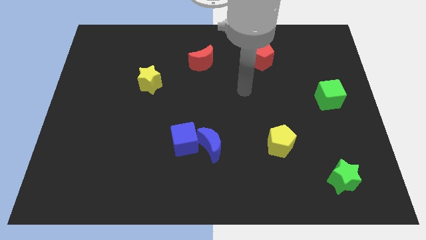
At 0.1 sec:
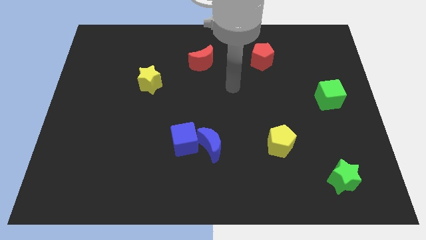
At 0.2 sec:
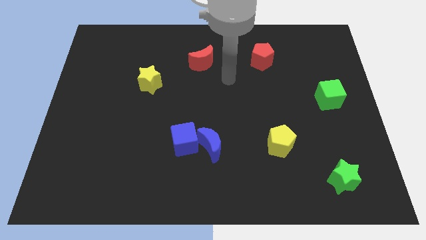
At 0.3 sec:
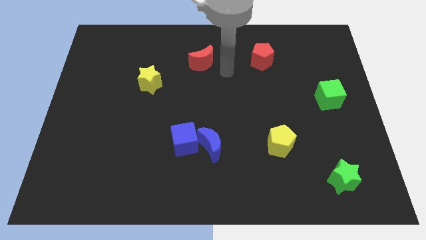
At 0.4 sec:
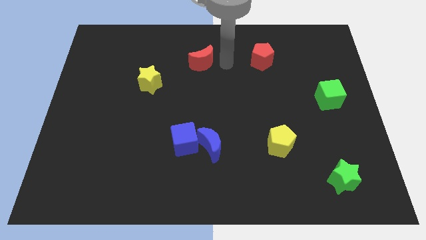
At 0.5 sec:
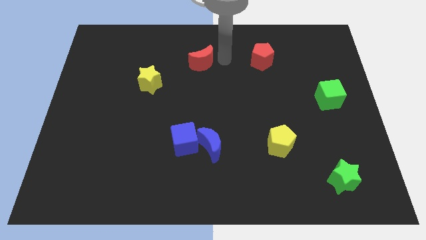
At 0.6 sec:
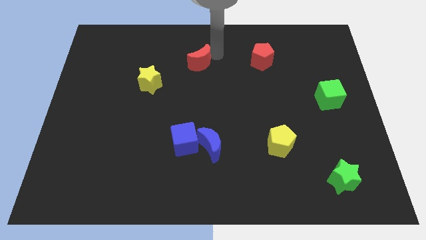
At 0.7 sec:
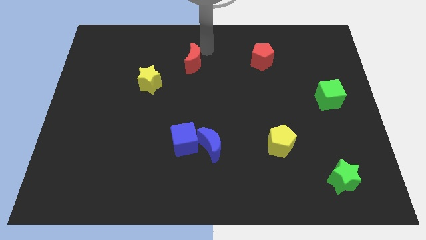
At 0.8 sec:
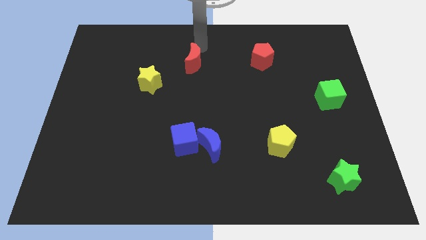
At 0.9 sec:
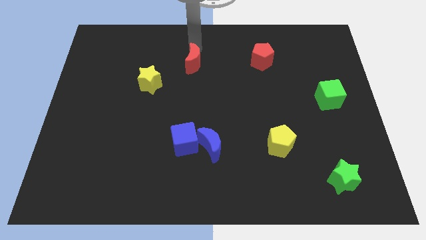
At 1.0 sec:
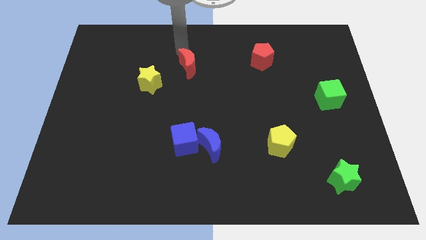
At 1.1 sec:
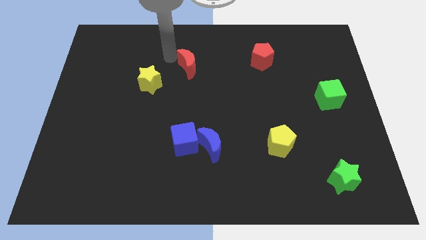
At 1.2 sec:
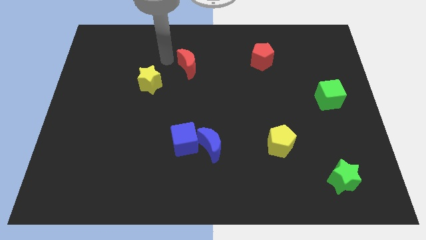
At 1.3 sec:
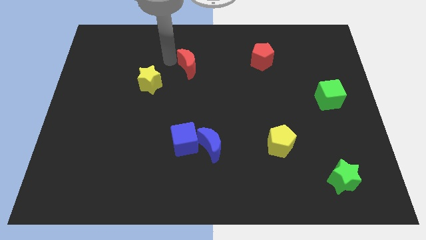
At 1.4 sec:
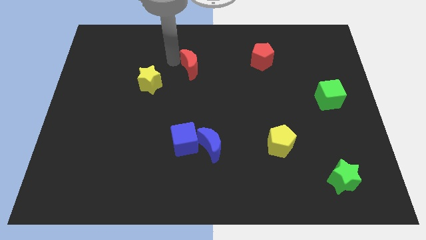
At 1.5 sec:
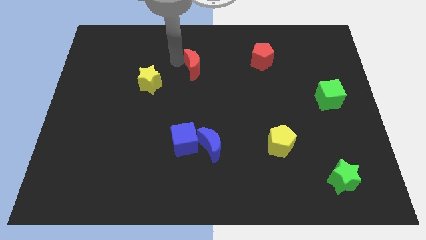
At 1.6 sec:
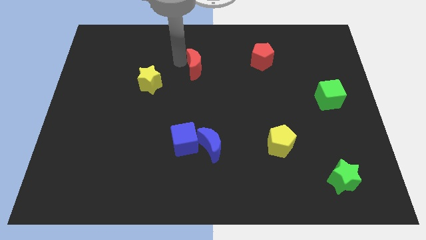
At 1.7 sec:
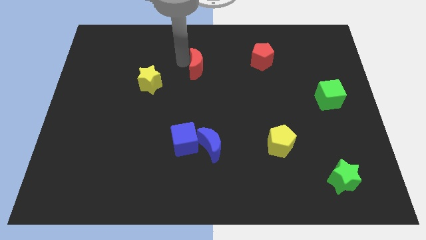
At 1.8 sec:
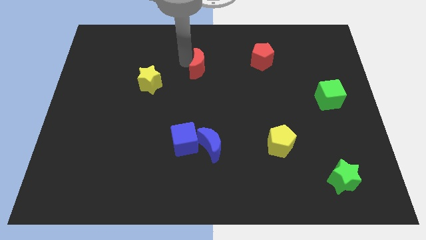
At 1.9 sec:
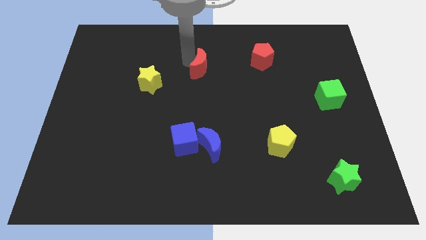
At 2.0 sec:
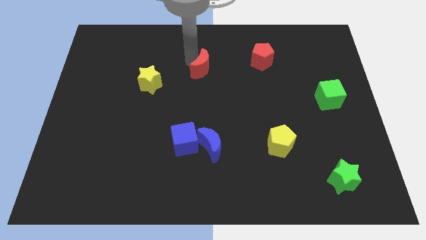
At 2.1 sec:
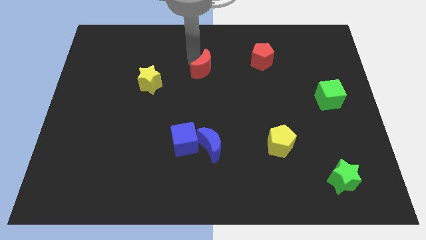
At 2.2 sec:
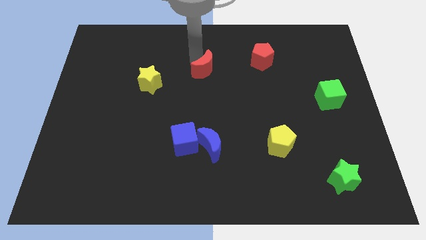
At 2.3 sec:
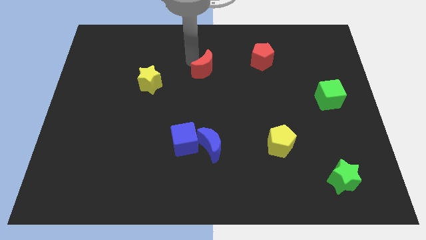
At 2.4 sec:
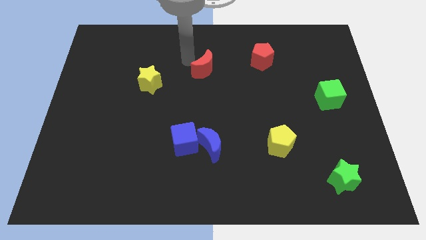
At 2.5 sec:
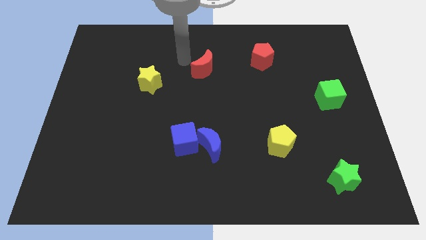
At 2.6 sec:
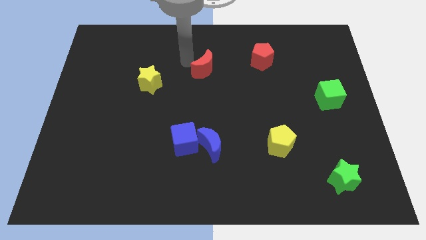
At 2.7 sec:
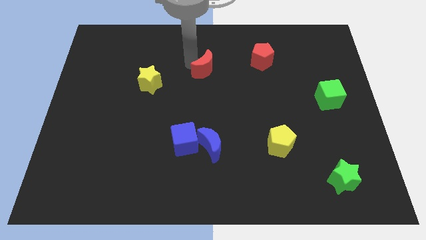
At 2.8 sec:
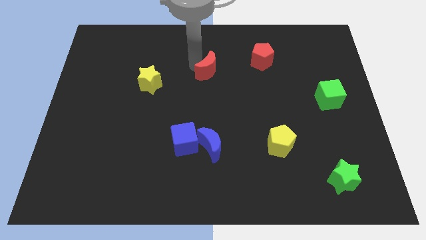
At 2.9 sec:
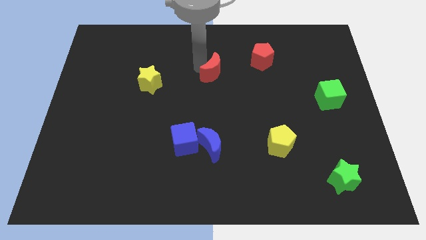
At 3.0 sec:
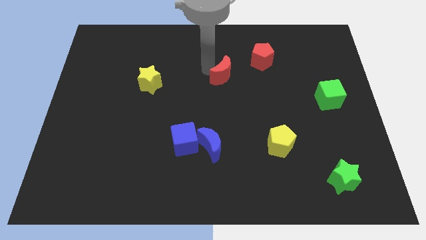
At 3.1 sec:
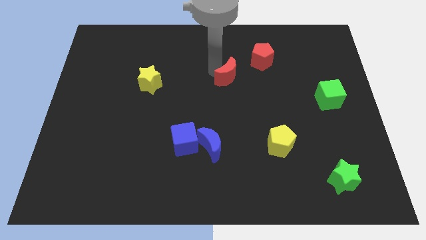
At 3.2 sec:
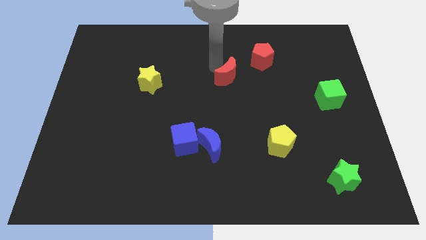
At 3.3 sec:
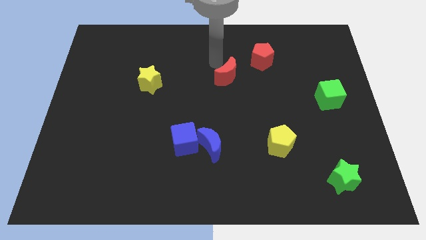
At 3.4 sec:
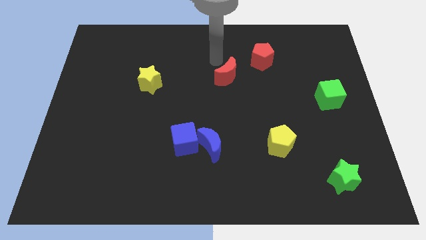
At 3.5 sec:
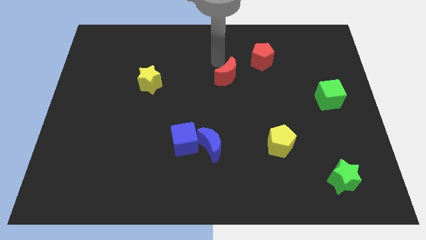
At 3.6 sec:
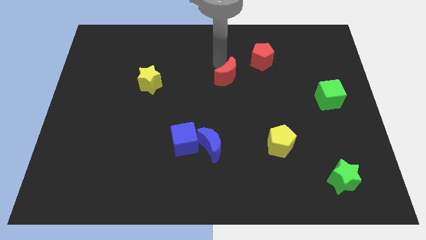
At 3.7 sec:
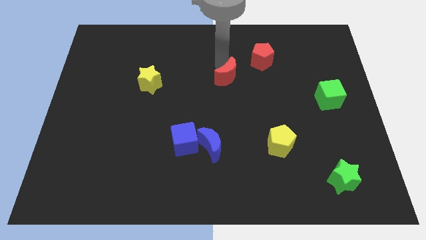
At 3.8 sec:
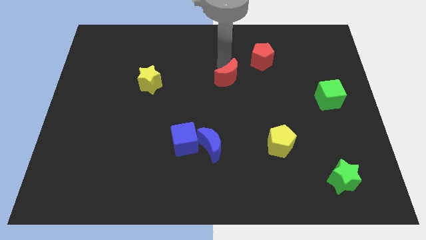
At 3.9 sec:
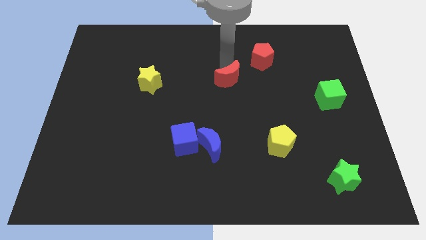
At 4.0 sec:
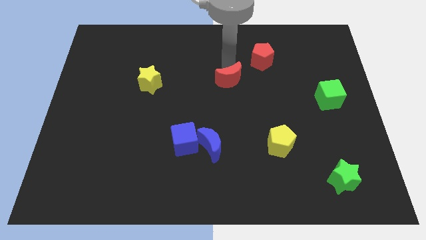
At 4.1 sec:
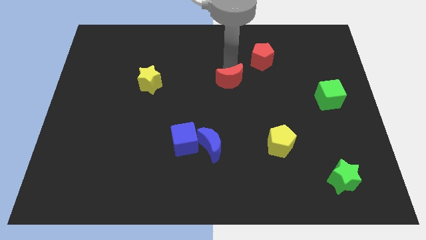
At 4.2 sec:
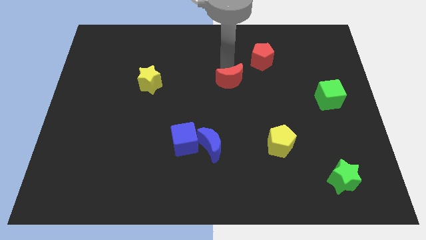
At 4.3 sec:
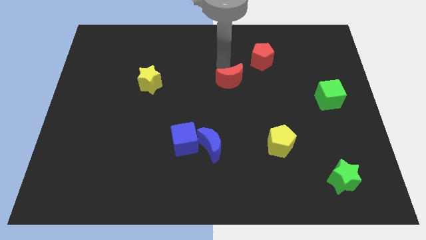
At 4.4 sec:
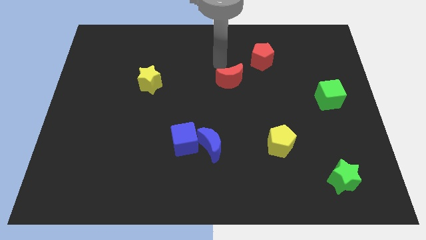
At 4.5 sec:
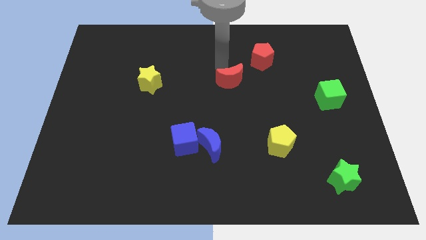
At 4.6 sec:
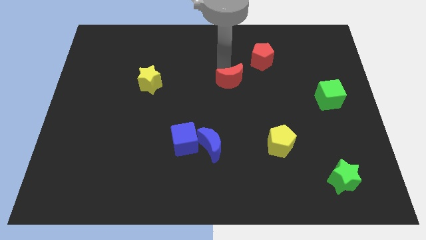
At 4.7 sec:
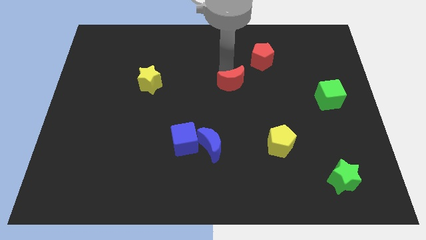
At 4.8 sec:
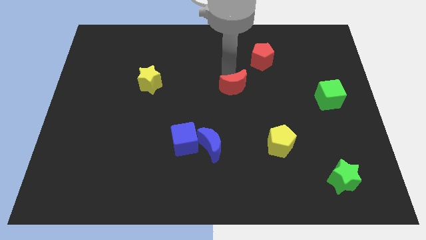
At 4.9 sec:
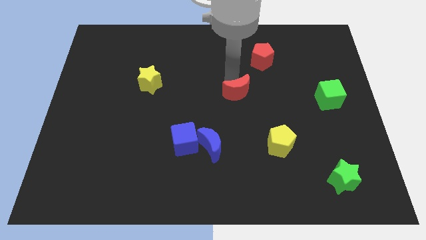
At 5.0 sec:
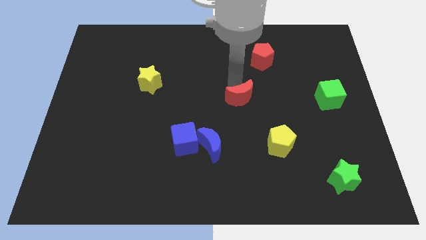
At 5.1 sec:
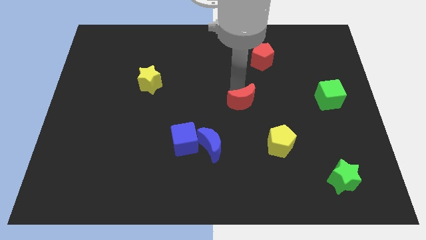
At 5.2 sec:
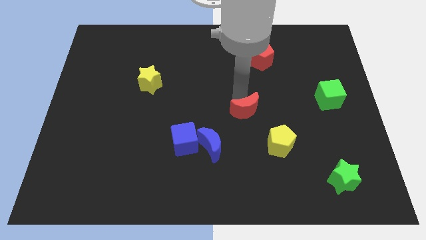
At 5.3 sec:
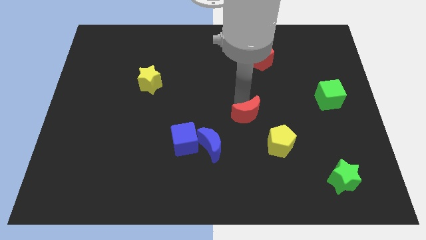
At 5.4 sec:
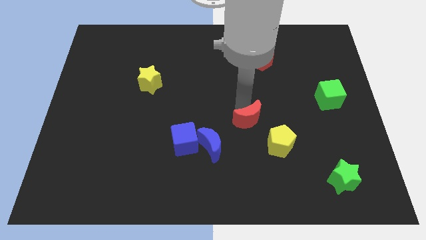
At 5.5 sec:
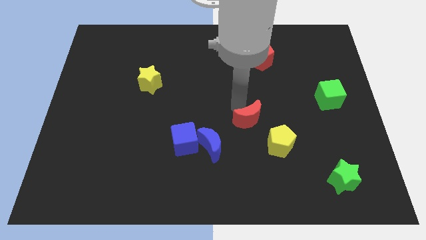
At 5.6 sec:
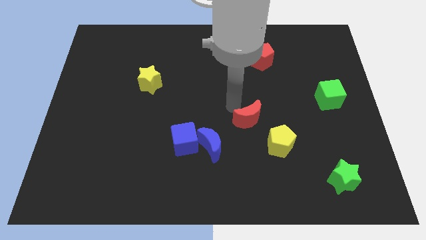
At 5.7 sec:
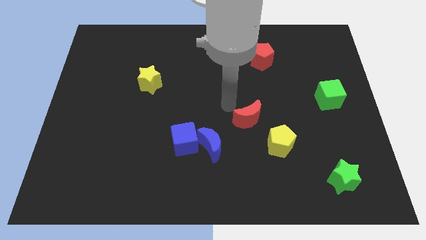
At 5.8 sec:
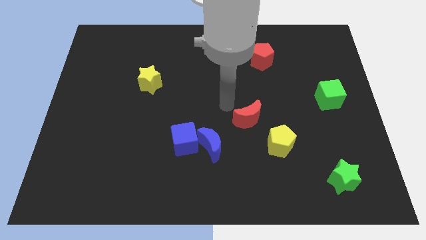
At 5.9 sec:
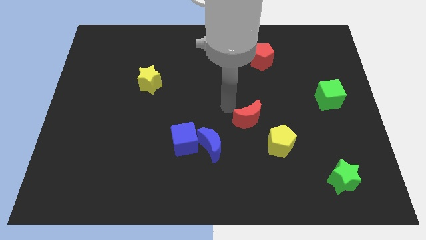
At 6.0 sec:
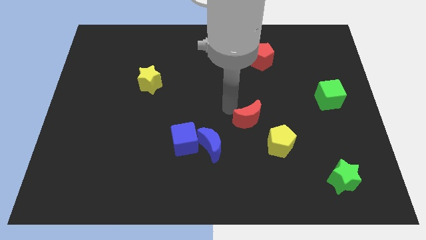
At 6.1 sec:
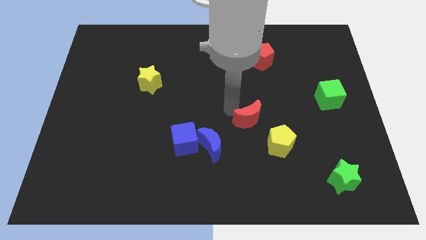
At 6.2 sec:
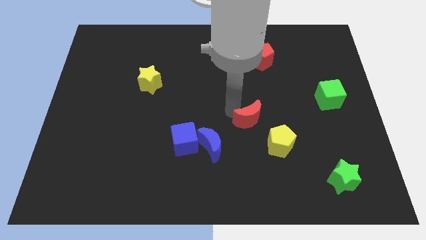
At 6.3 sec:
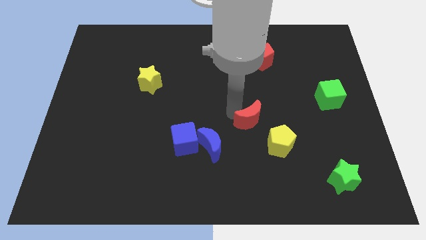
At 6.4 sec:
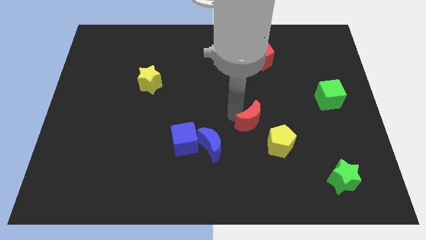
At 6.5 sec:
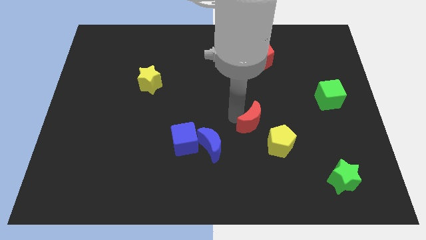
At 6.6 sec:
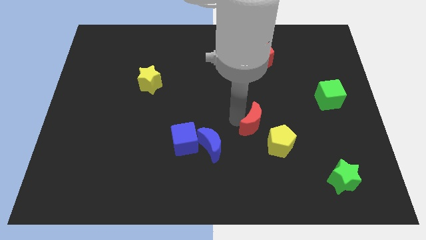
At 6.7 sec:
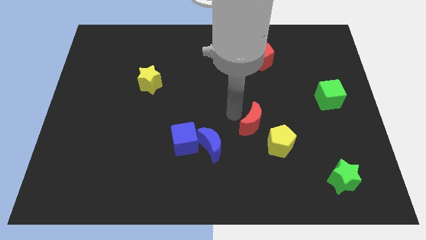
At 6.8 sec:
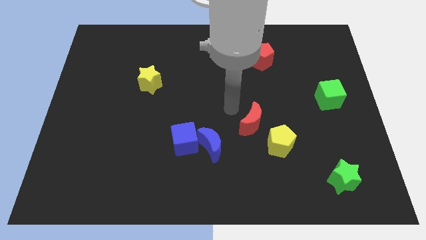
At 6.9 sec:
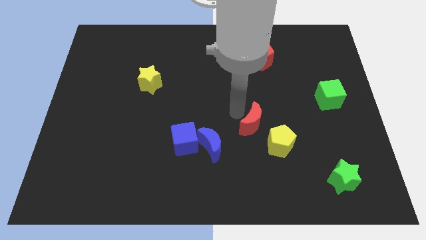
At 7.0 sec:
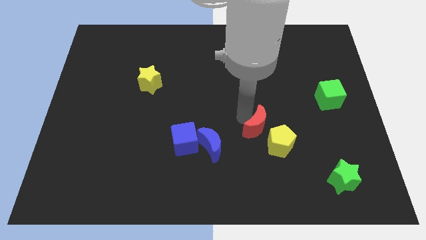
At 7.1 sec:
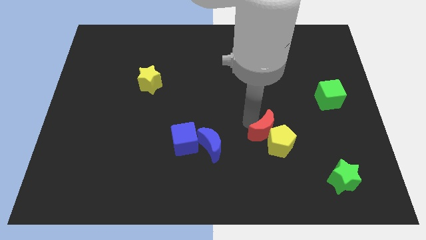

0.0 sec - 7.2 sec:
push the red moon to the yellow pentagon
